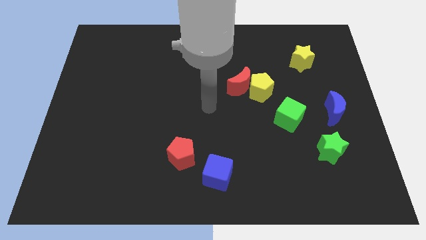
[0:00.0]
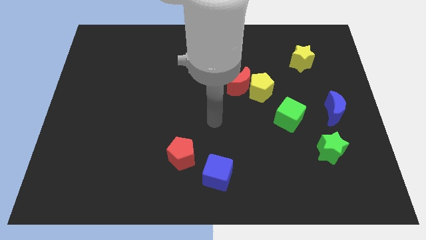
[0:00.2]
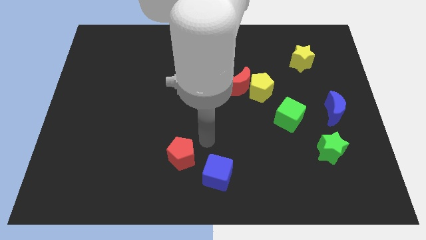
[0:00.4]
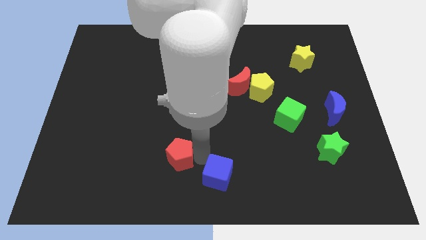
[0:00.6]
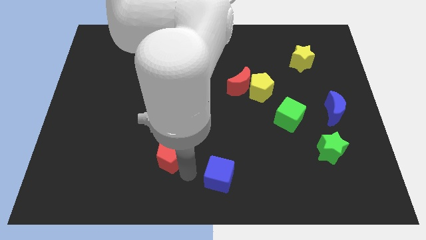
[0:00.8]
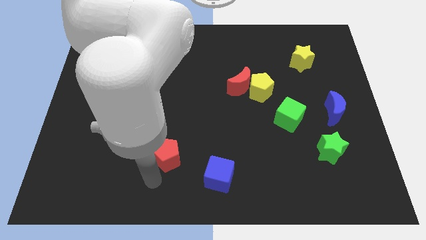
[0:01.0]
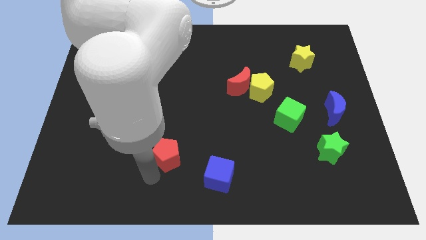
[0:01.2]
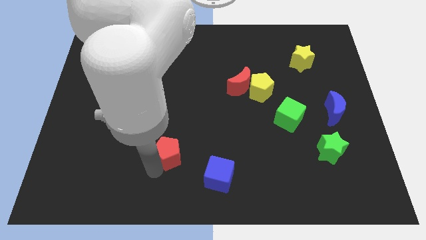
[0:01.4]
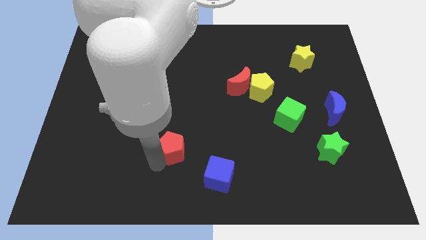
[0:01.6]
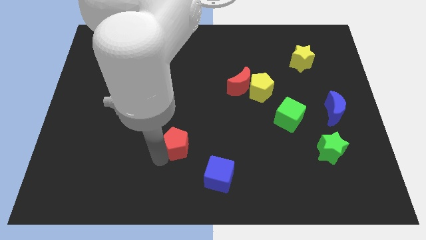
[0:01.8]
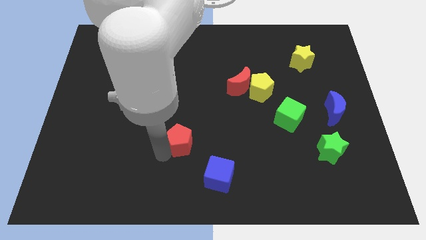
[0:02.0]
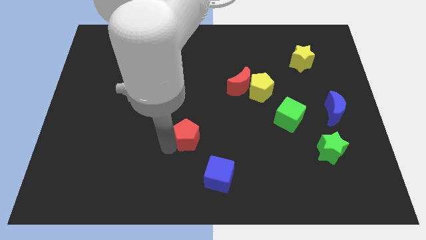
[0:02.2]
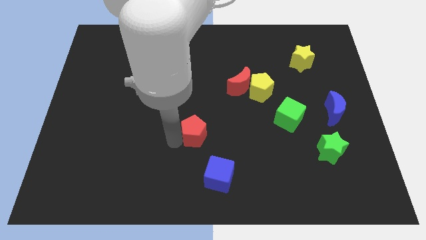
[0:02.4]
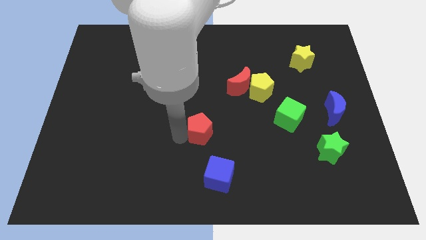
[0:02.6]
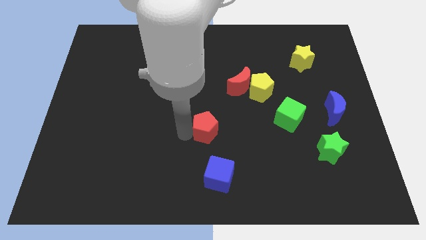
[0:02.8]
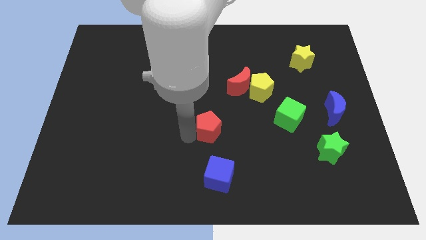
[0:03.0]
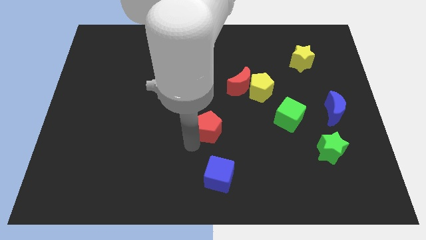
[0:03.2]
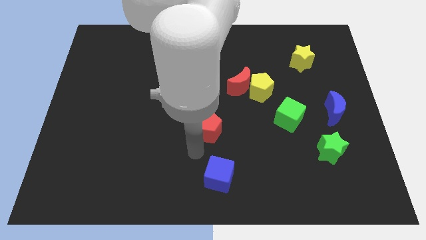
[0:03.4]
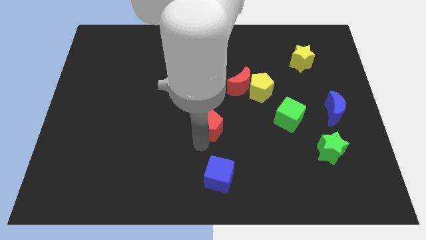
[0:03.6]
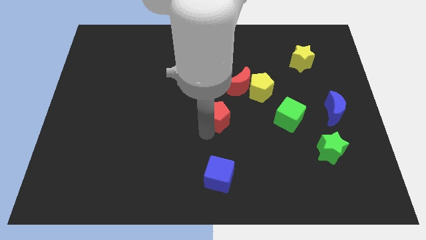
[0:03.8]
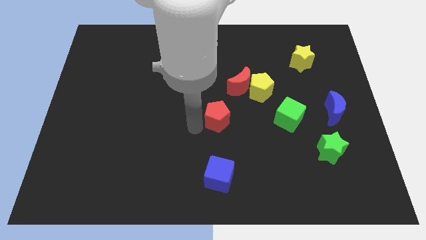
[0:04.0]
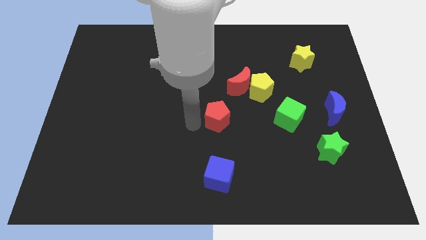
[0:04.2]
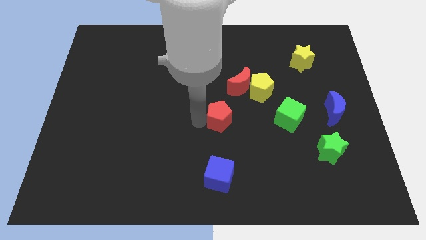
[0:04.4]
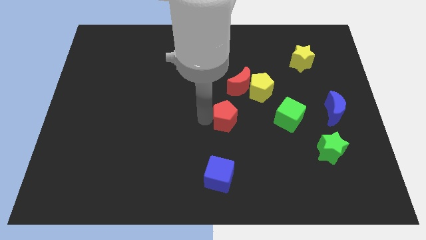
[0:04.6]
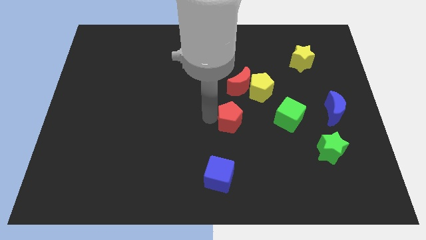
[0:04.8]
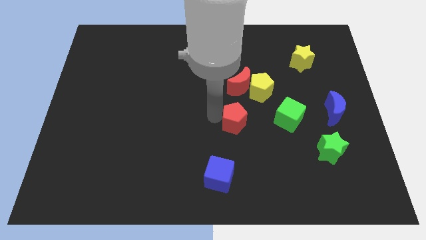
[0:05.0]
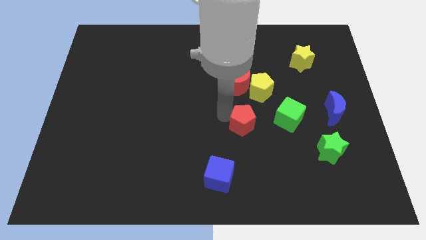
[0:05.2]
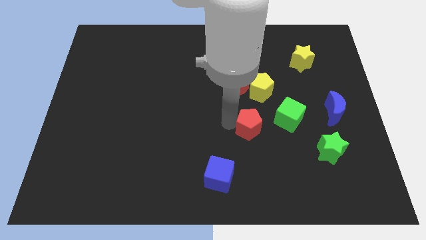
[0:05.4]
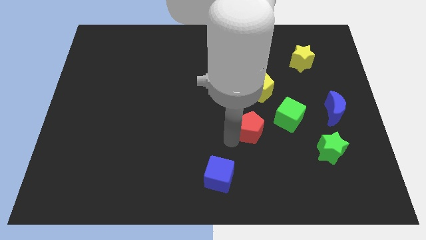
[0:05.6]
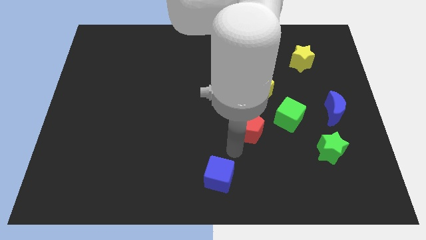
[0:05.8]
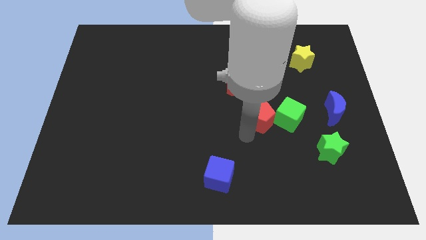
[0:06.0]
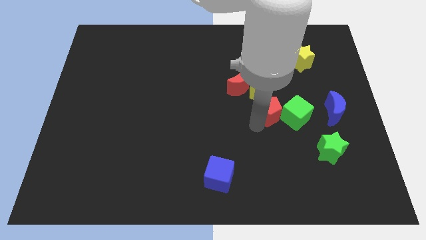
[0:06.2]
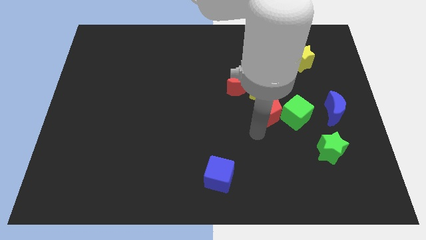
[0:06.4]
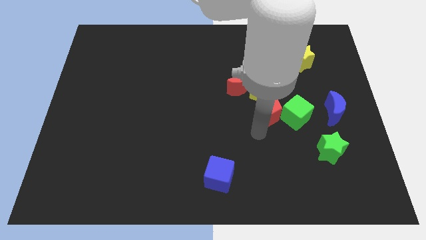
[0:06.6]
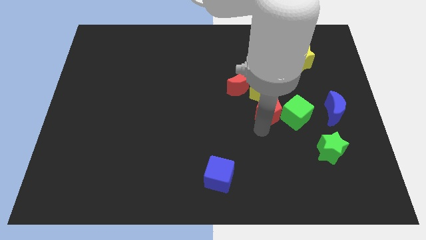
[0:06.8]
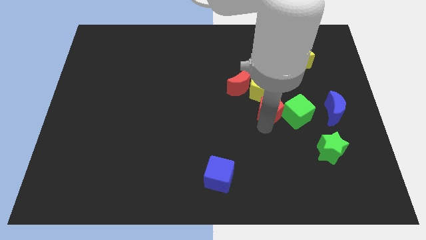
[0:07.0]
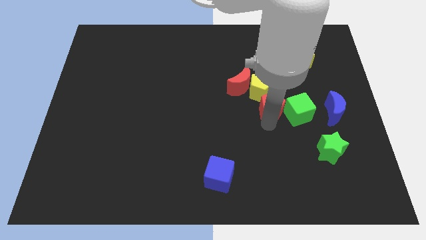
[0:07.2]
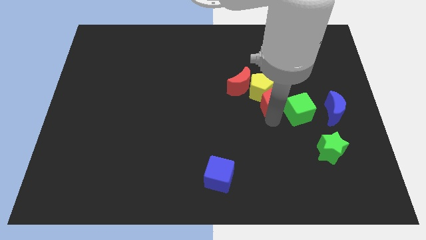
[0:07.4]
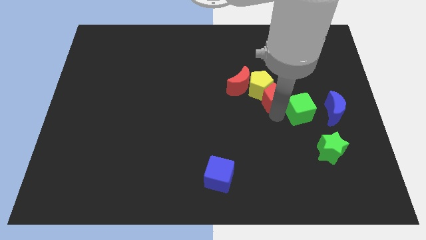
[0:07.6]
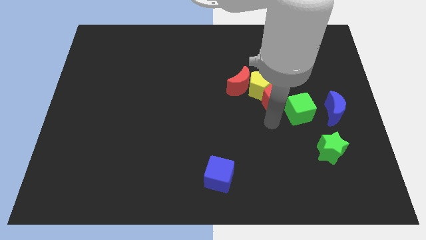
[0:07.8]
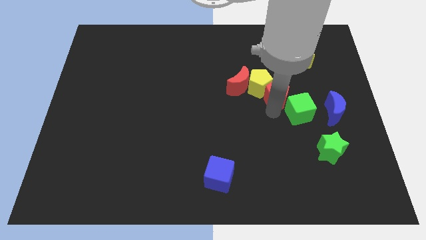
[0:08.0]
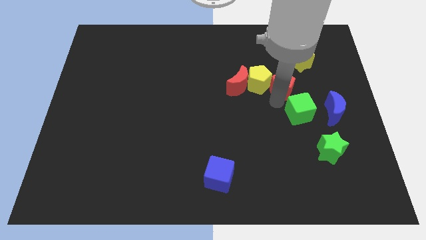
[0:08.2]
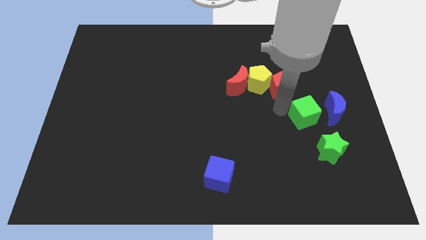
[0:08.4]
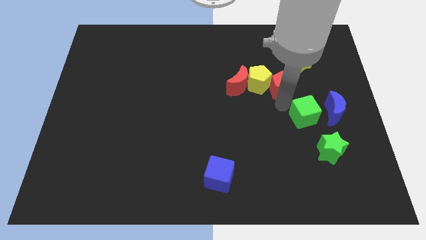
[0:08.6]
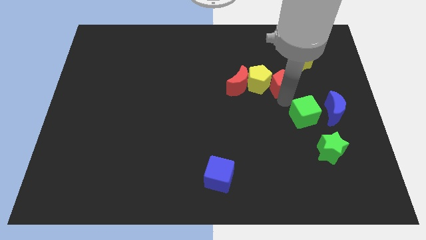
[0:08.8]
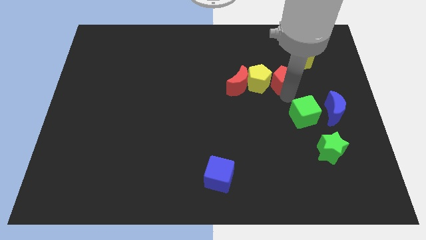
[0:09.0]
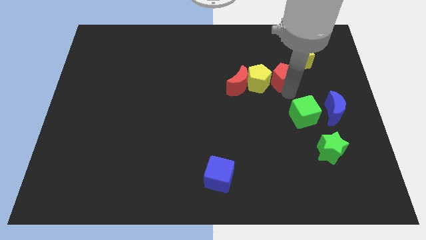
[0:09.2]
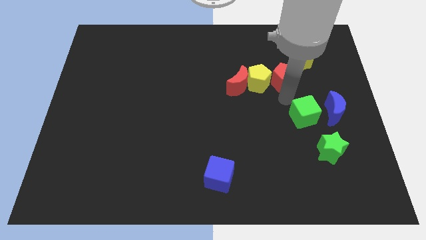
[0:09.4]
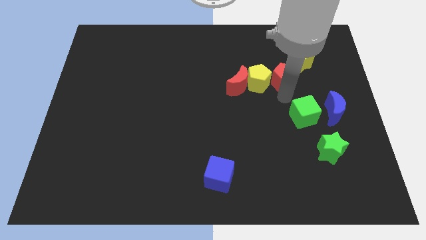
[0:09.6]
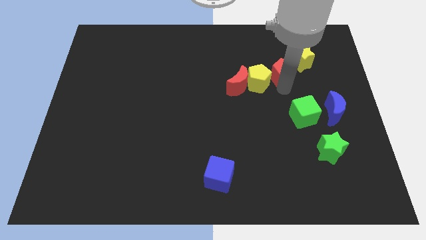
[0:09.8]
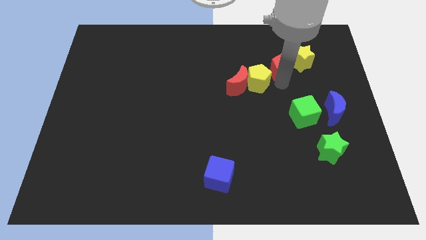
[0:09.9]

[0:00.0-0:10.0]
move the red pentagon towards the yellow star

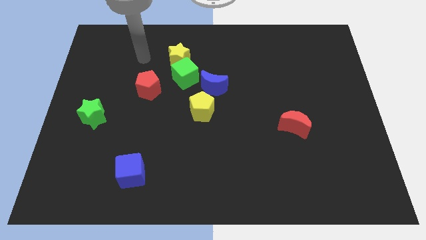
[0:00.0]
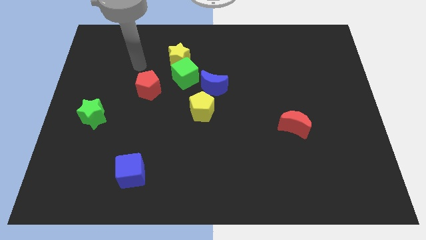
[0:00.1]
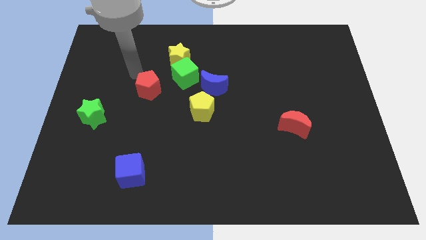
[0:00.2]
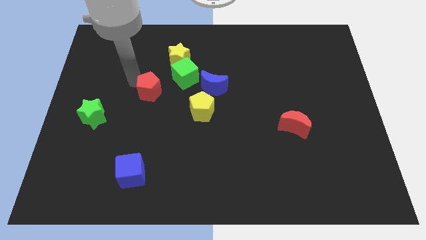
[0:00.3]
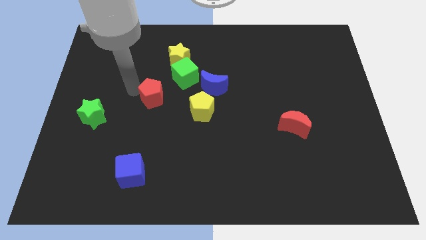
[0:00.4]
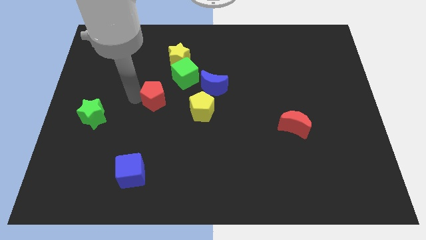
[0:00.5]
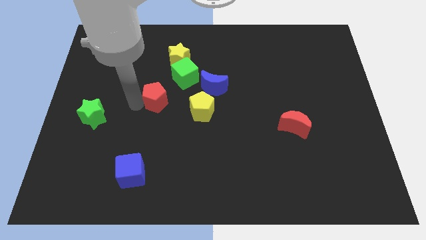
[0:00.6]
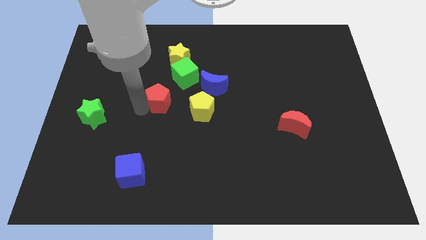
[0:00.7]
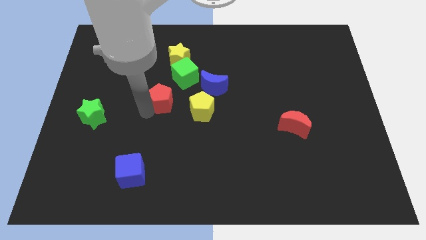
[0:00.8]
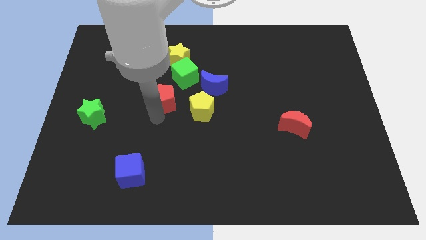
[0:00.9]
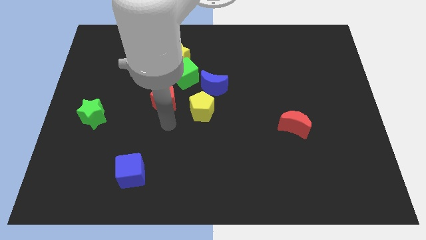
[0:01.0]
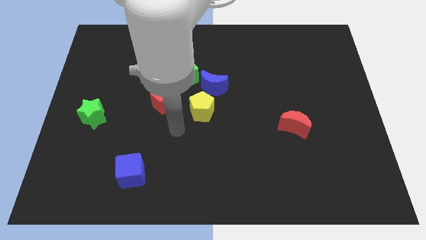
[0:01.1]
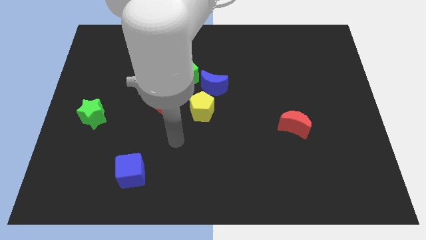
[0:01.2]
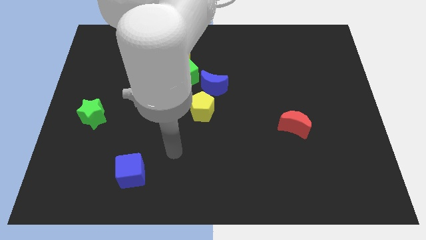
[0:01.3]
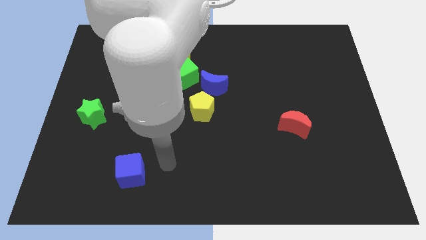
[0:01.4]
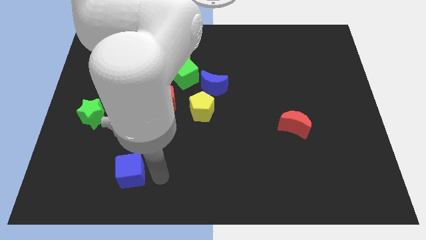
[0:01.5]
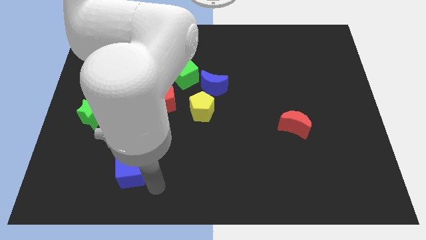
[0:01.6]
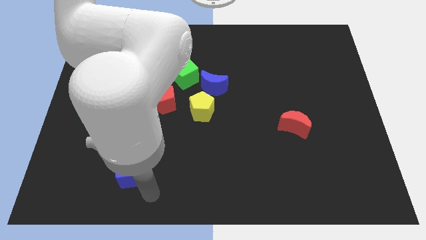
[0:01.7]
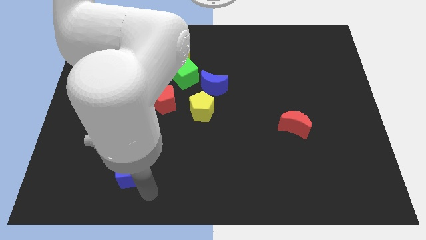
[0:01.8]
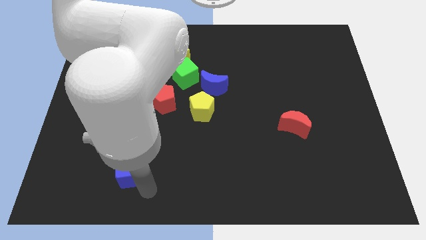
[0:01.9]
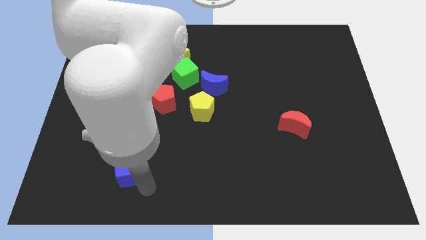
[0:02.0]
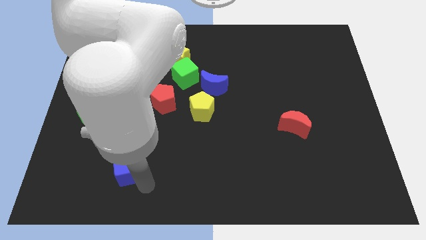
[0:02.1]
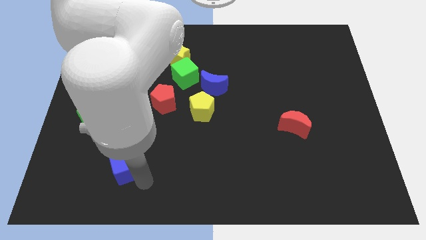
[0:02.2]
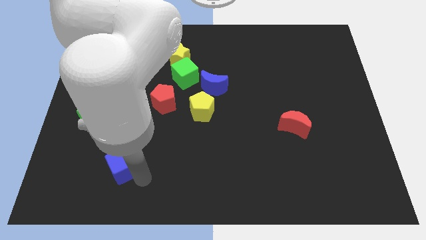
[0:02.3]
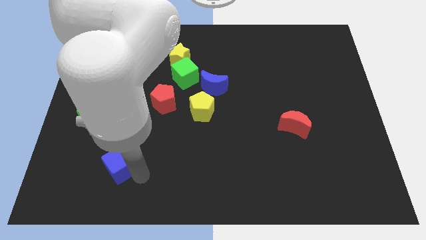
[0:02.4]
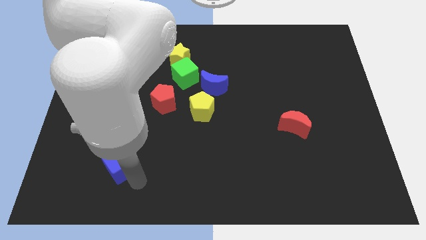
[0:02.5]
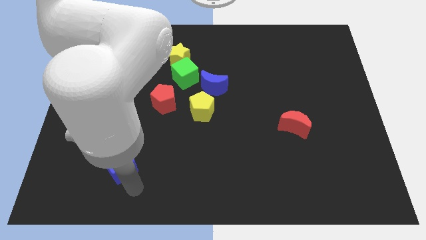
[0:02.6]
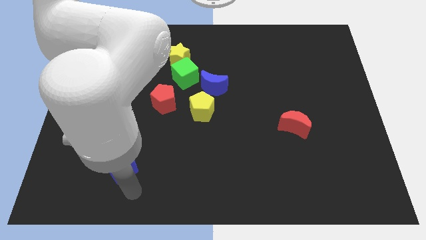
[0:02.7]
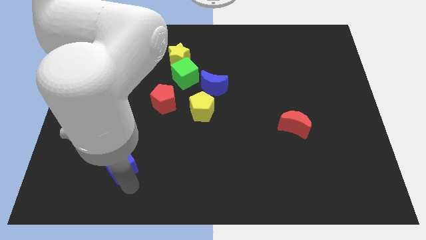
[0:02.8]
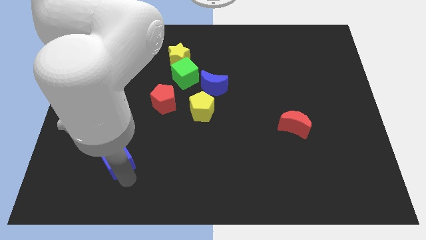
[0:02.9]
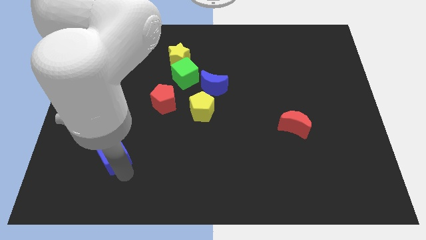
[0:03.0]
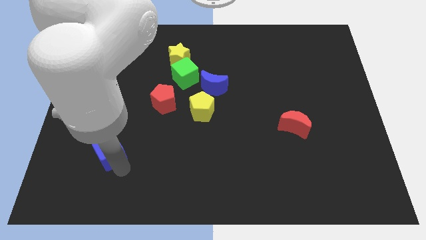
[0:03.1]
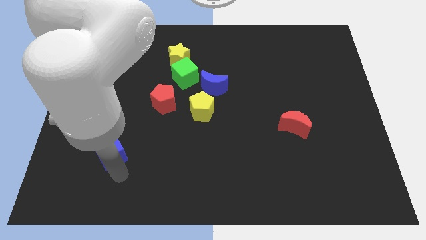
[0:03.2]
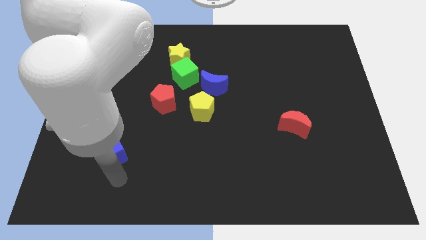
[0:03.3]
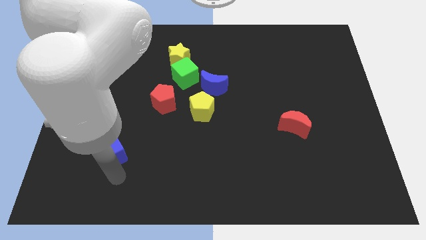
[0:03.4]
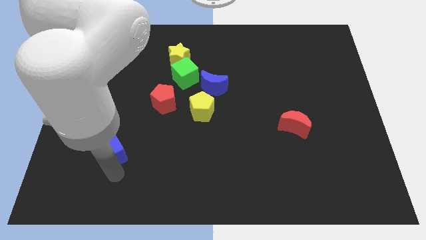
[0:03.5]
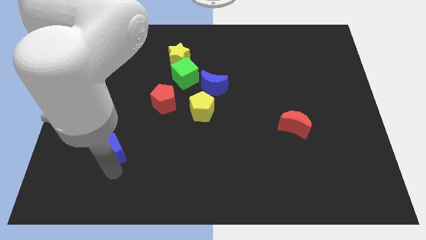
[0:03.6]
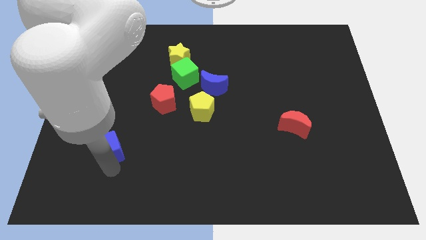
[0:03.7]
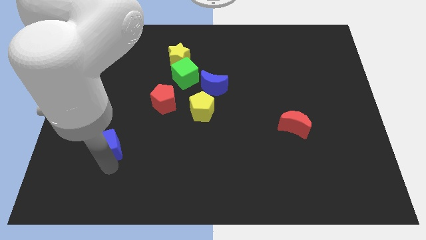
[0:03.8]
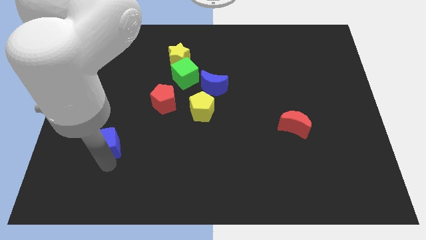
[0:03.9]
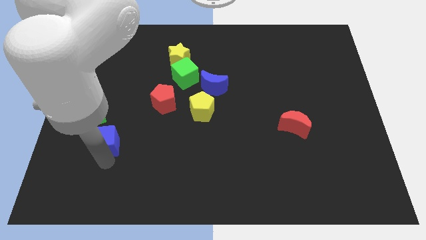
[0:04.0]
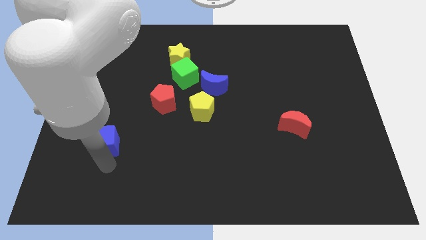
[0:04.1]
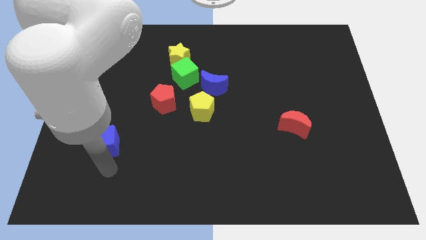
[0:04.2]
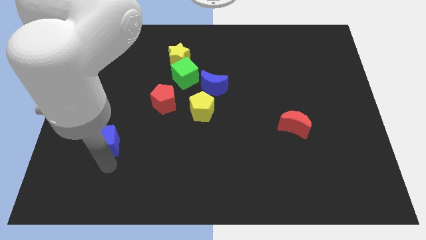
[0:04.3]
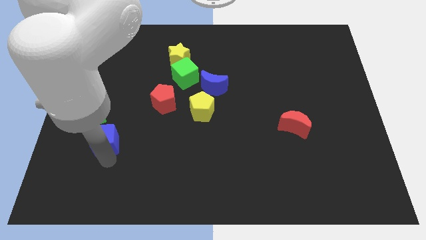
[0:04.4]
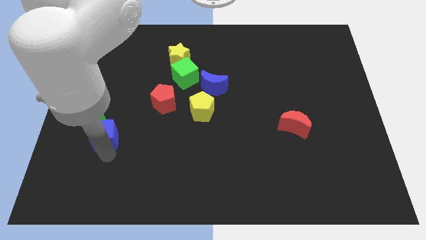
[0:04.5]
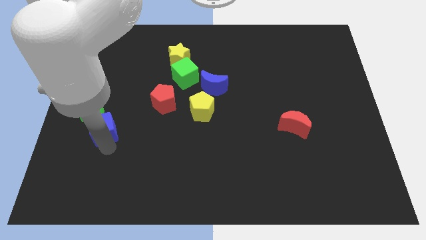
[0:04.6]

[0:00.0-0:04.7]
put the blue cube towards the green star
